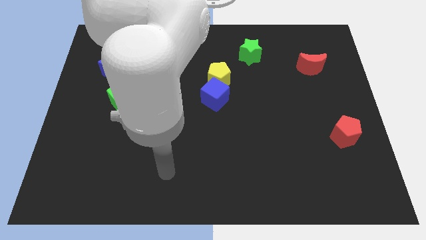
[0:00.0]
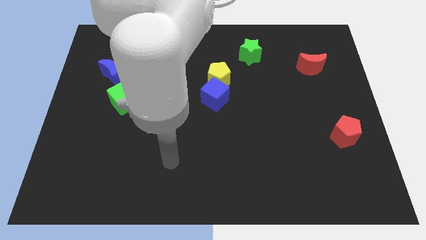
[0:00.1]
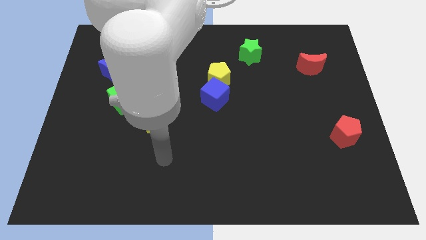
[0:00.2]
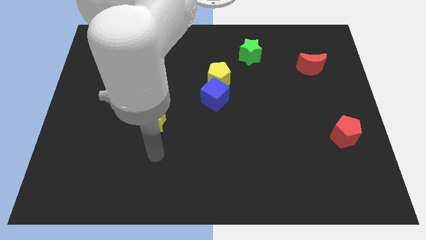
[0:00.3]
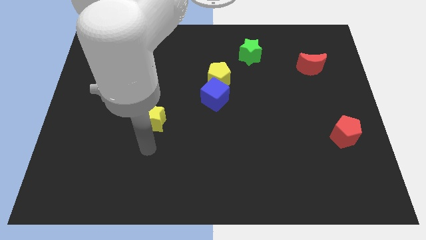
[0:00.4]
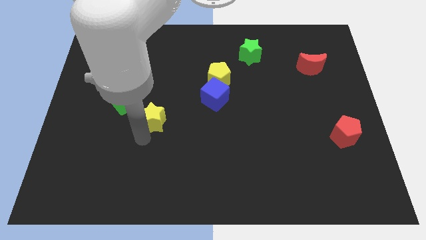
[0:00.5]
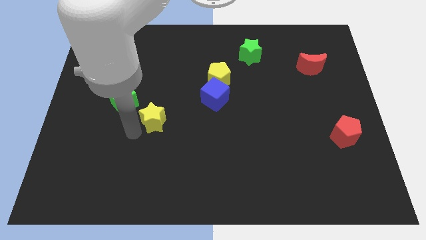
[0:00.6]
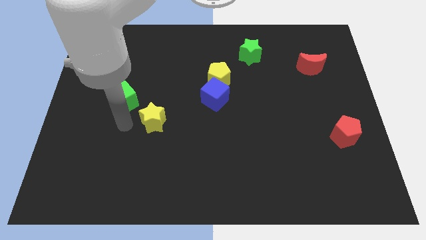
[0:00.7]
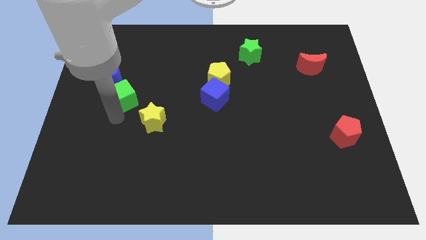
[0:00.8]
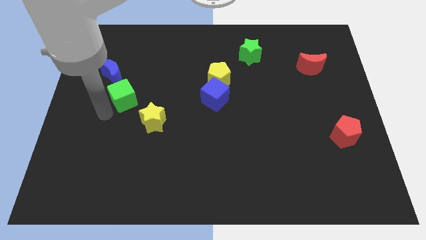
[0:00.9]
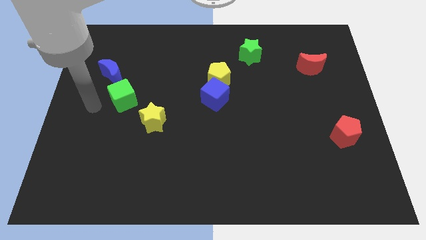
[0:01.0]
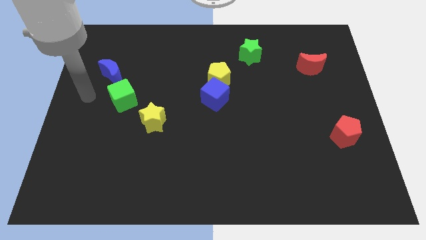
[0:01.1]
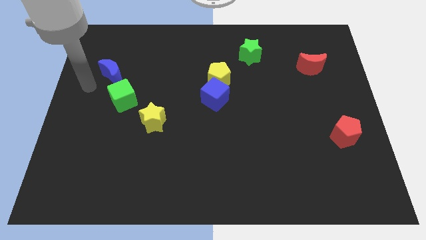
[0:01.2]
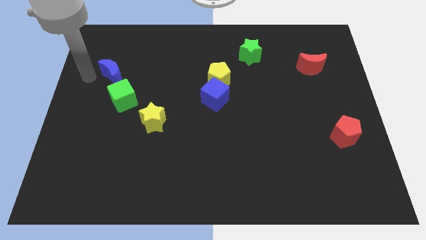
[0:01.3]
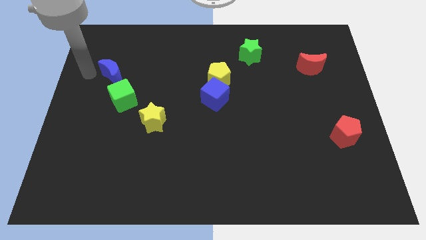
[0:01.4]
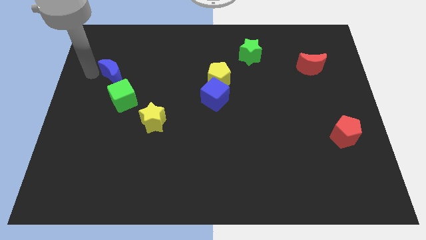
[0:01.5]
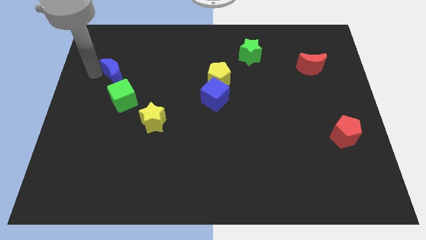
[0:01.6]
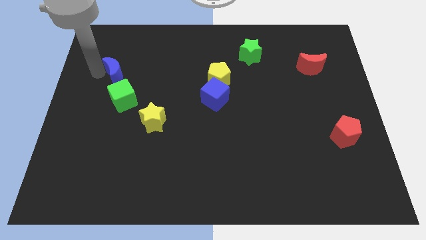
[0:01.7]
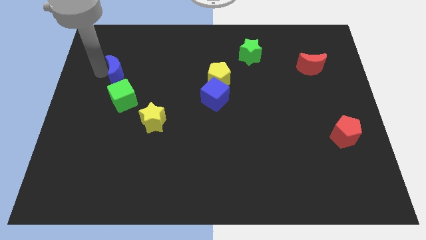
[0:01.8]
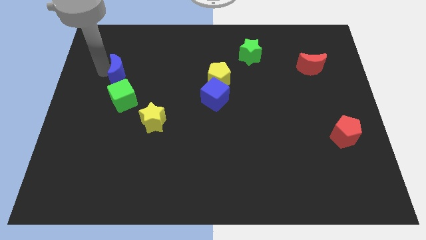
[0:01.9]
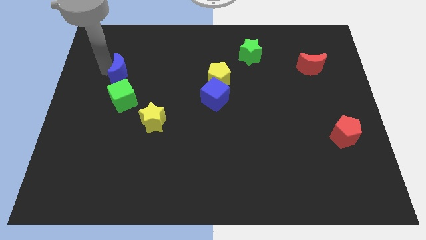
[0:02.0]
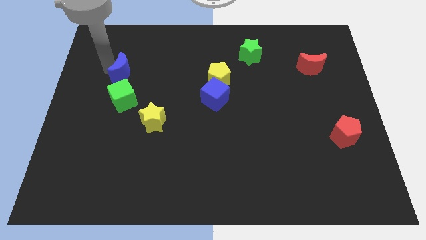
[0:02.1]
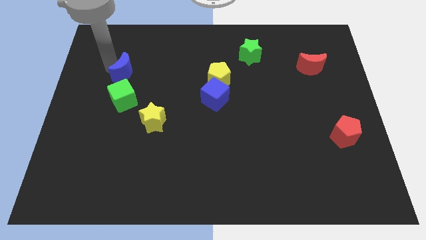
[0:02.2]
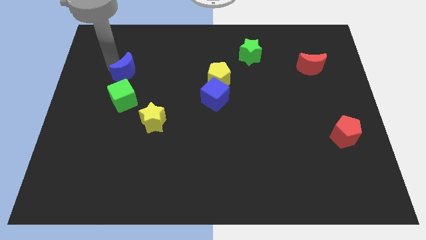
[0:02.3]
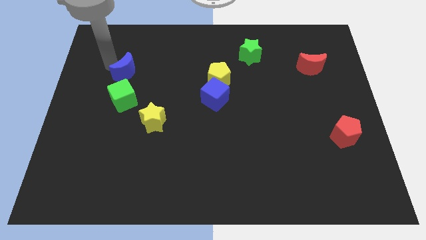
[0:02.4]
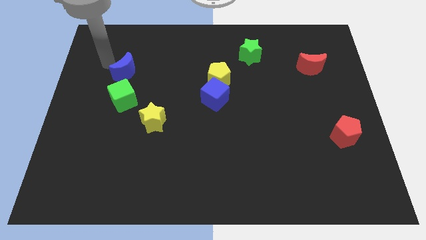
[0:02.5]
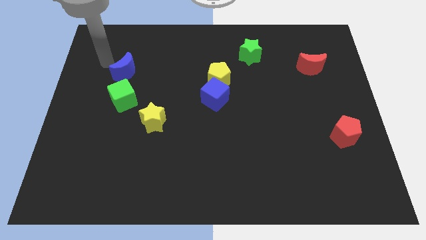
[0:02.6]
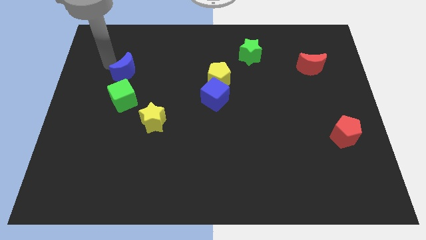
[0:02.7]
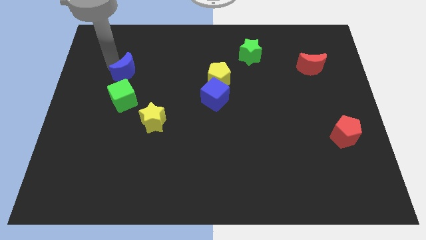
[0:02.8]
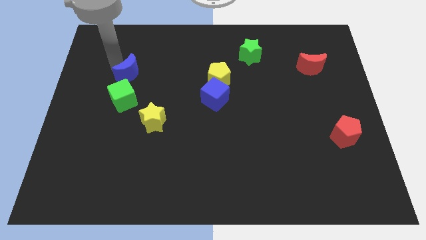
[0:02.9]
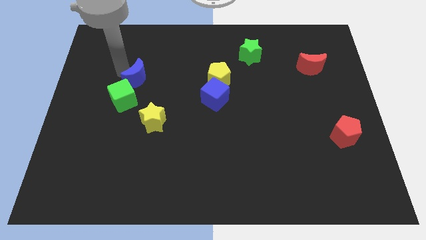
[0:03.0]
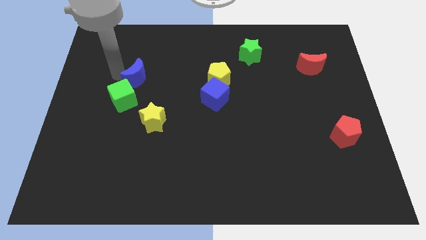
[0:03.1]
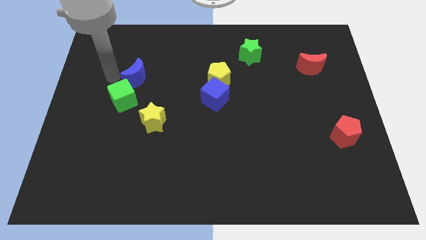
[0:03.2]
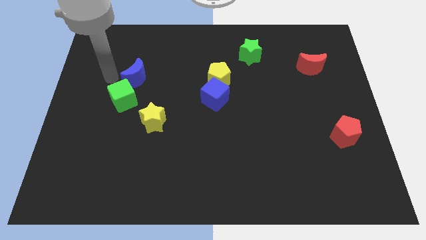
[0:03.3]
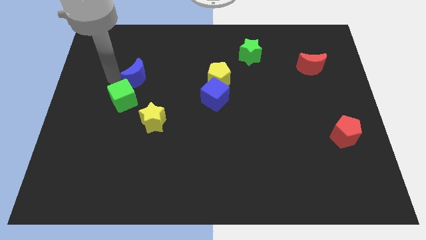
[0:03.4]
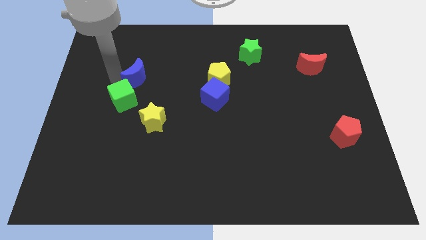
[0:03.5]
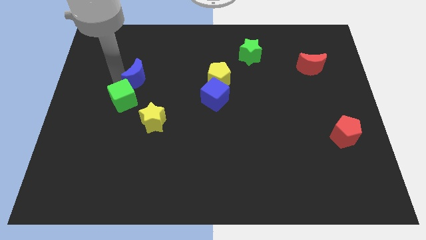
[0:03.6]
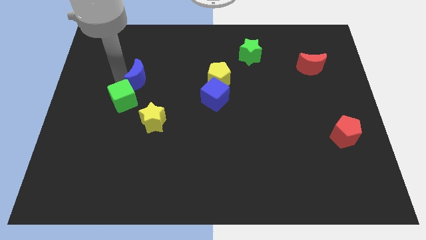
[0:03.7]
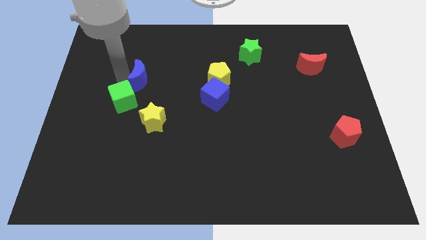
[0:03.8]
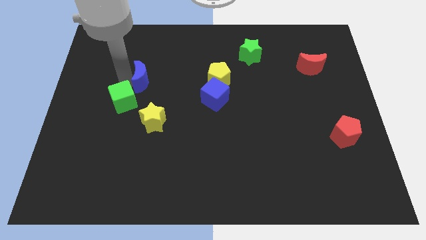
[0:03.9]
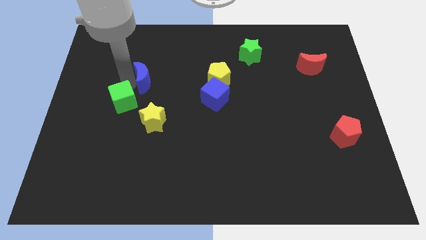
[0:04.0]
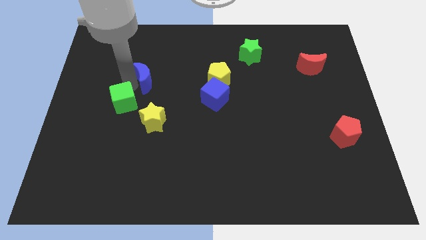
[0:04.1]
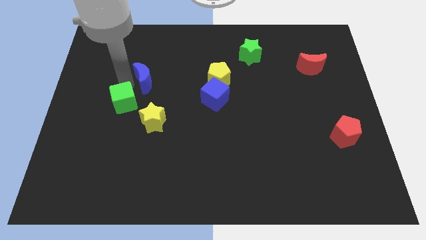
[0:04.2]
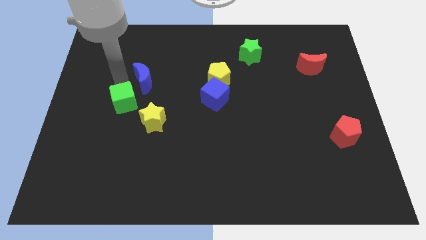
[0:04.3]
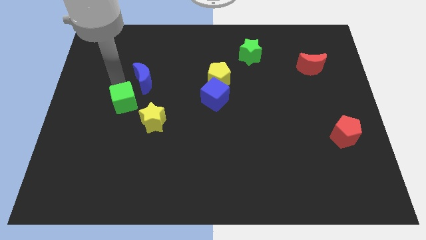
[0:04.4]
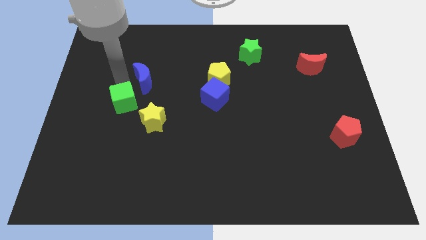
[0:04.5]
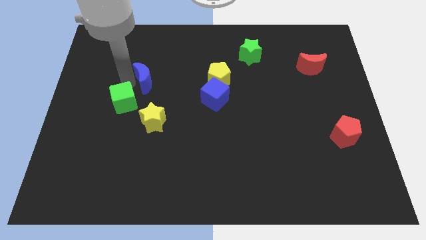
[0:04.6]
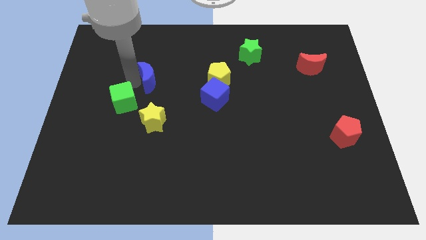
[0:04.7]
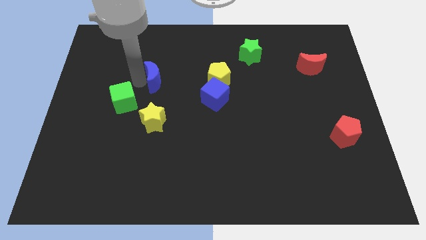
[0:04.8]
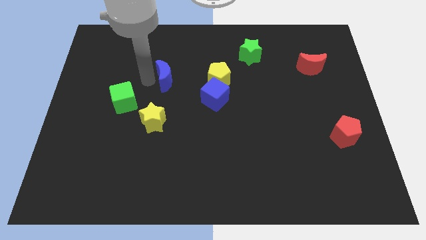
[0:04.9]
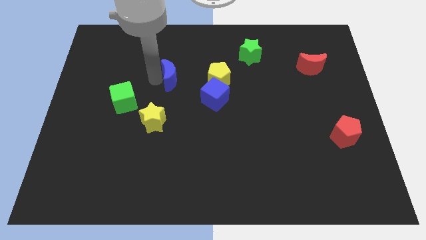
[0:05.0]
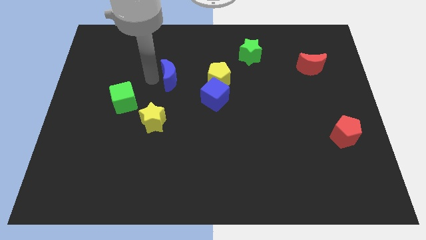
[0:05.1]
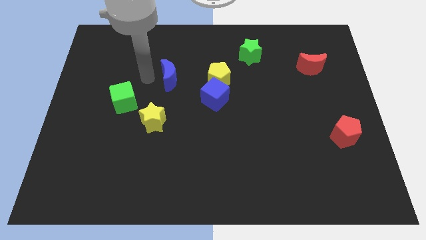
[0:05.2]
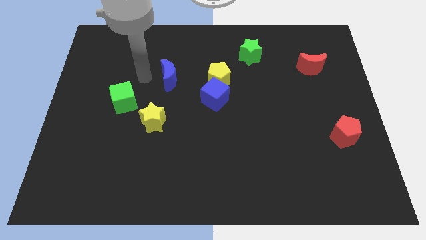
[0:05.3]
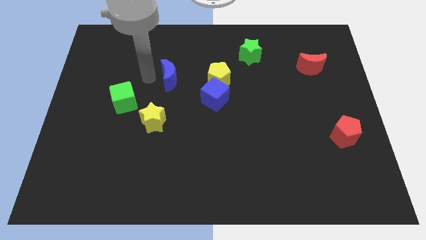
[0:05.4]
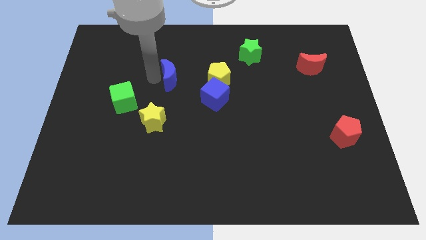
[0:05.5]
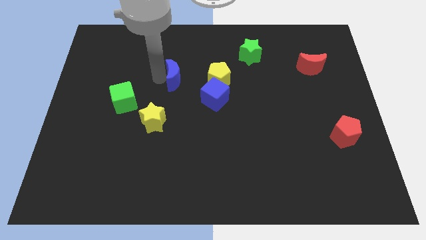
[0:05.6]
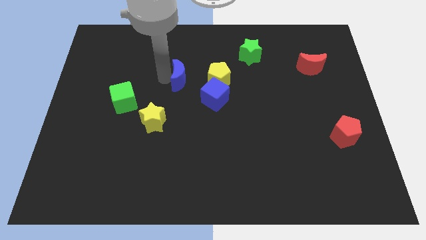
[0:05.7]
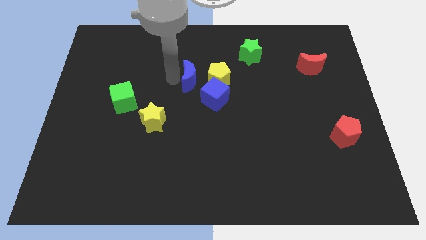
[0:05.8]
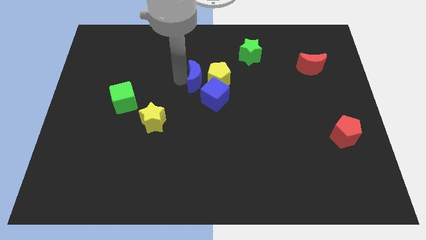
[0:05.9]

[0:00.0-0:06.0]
push the blue moon next to the yellow pentagon

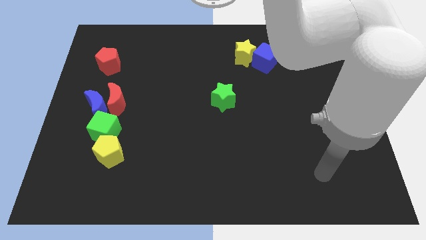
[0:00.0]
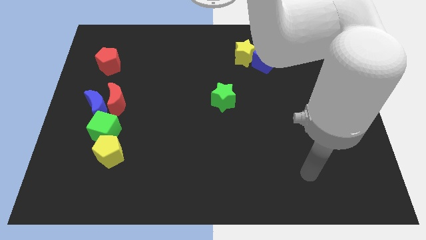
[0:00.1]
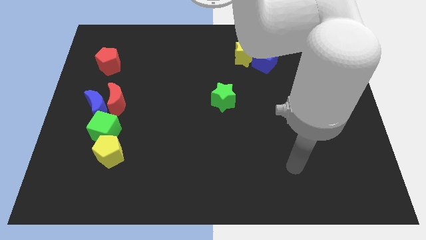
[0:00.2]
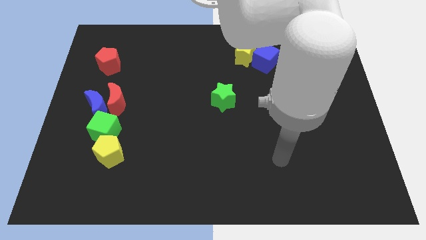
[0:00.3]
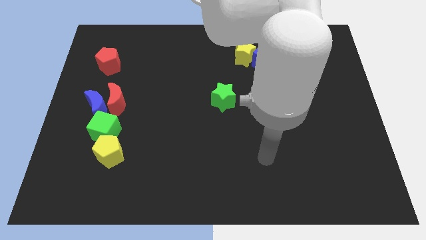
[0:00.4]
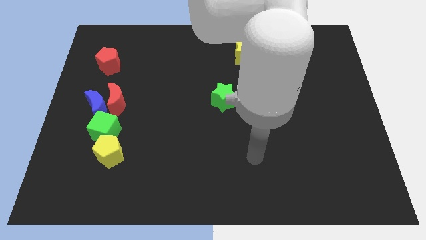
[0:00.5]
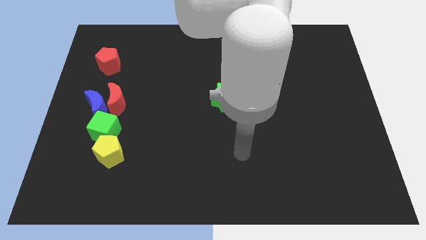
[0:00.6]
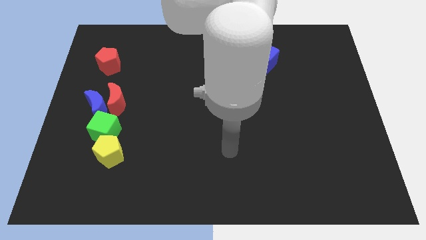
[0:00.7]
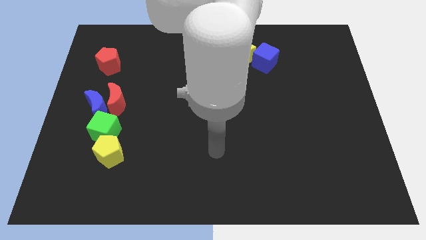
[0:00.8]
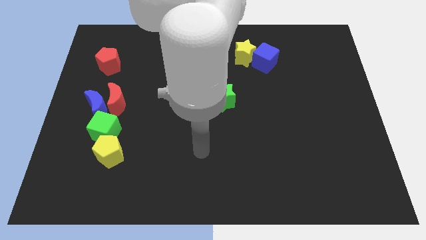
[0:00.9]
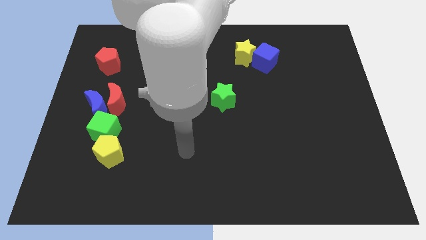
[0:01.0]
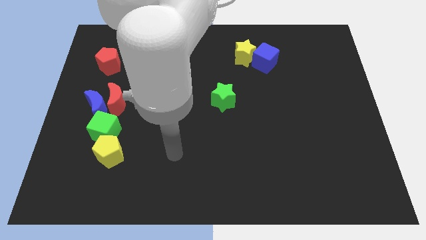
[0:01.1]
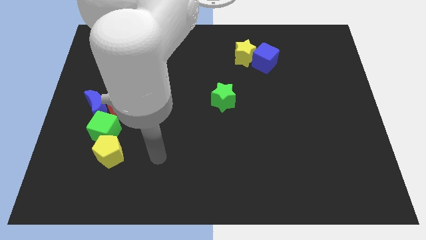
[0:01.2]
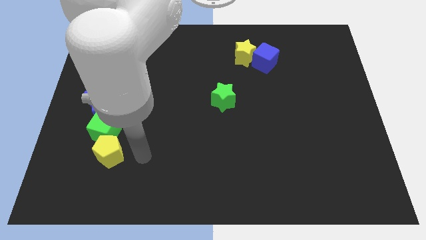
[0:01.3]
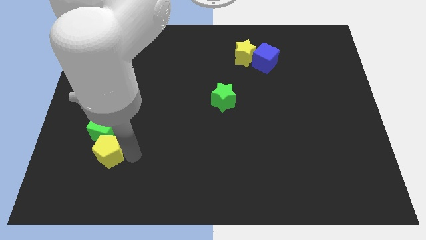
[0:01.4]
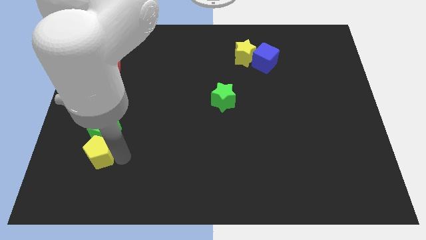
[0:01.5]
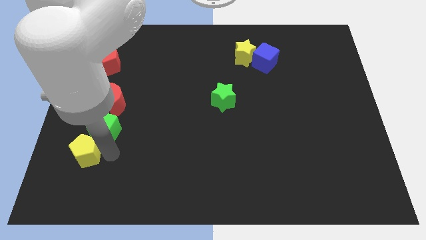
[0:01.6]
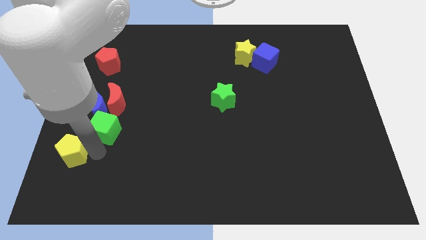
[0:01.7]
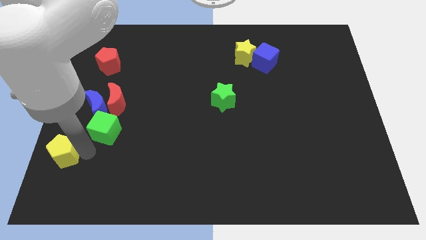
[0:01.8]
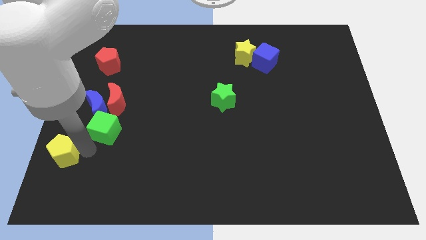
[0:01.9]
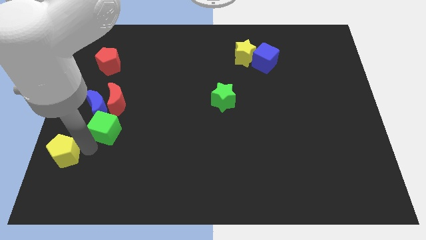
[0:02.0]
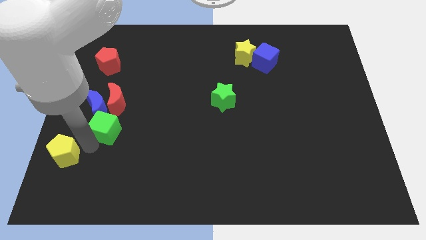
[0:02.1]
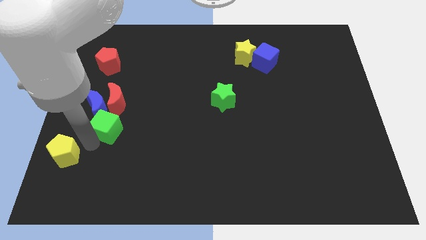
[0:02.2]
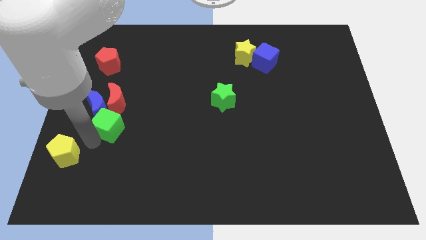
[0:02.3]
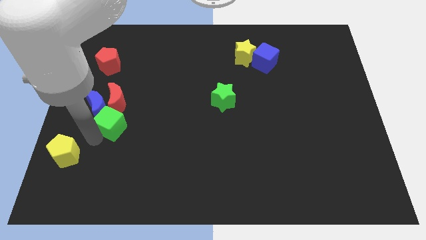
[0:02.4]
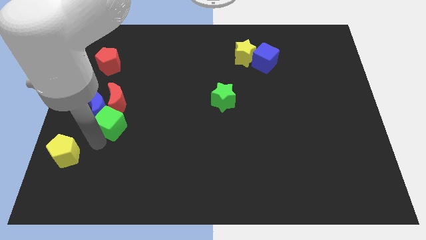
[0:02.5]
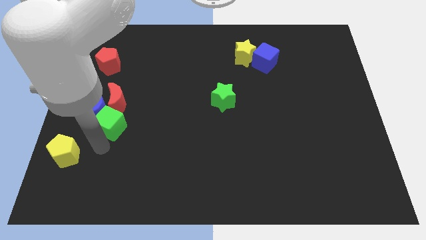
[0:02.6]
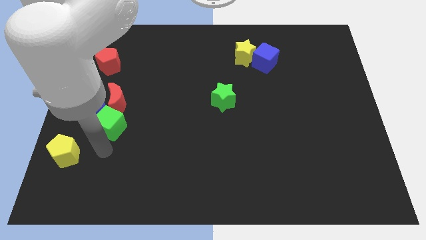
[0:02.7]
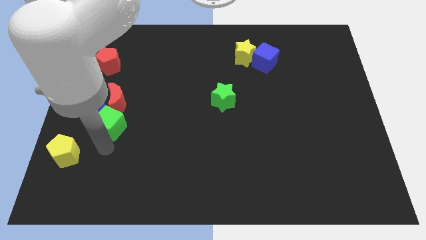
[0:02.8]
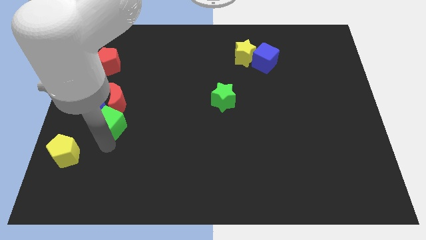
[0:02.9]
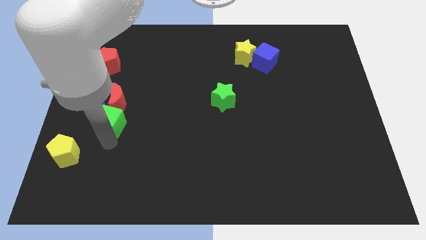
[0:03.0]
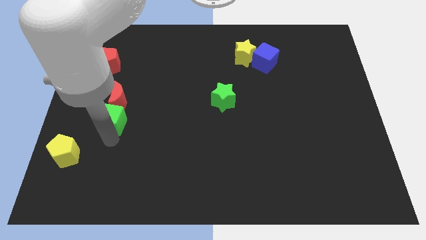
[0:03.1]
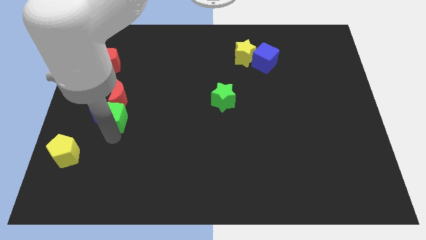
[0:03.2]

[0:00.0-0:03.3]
push the green cube next to the red moon
